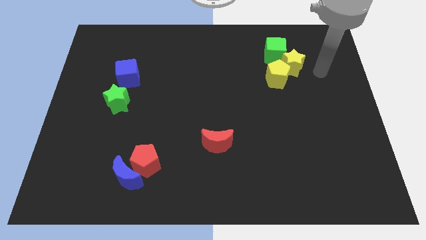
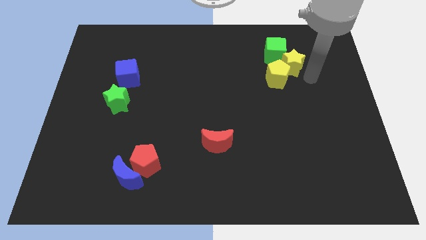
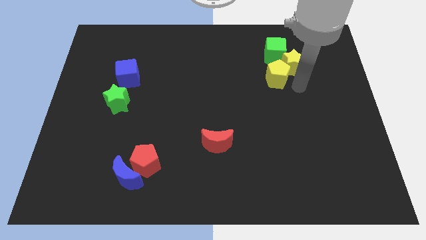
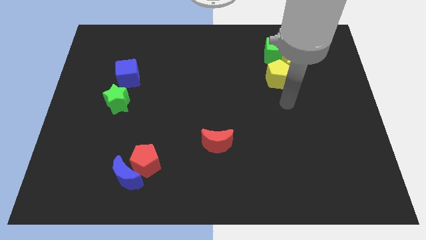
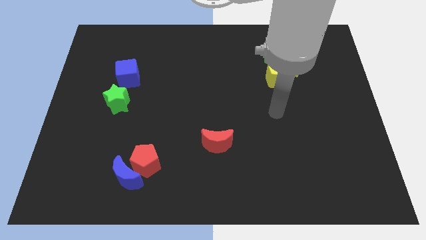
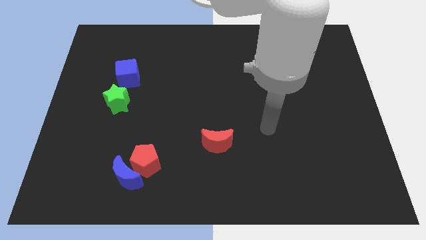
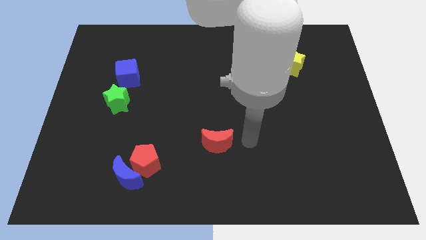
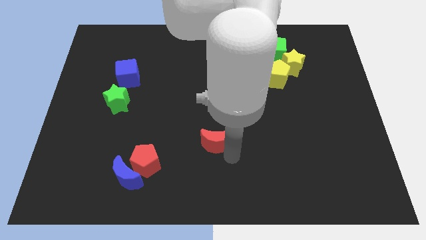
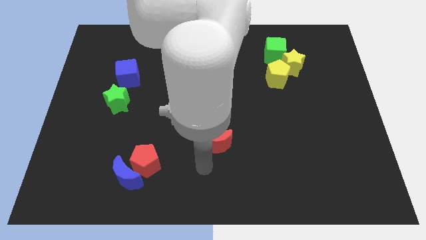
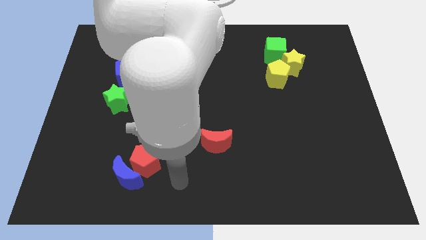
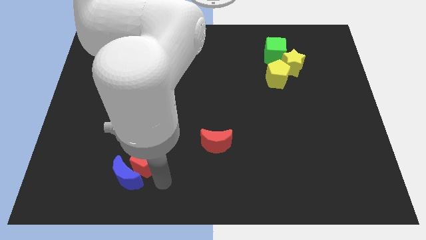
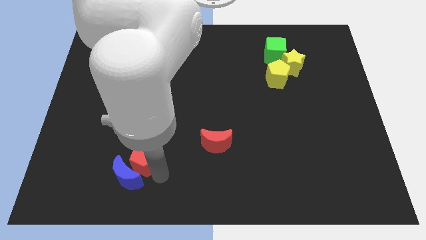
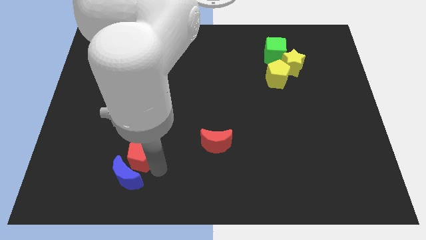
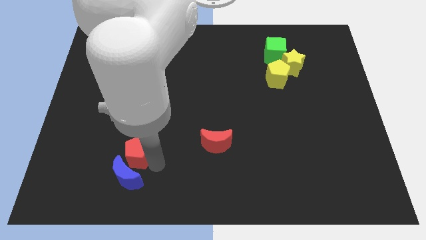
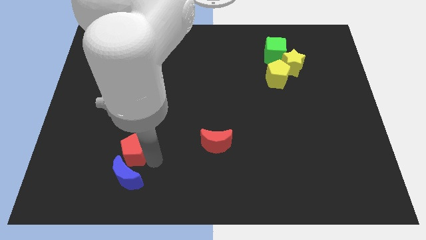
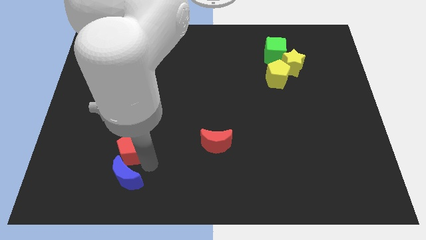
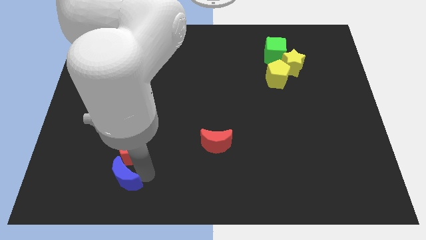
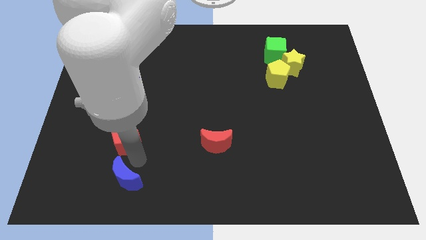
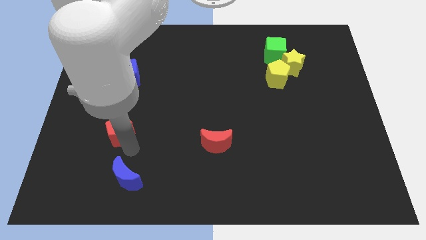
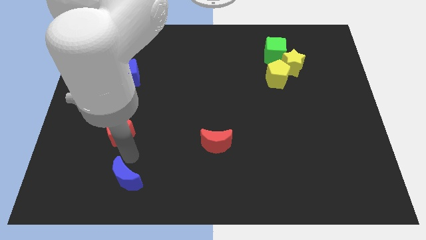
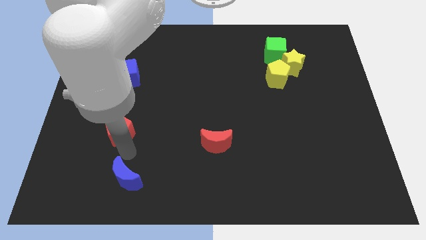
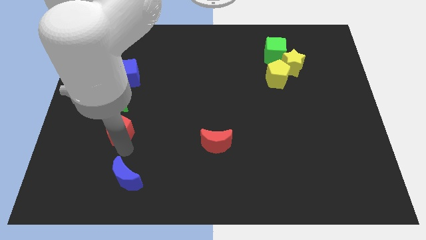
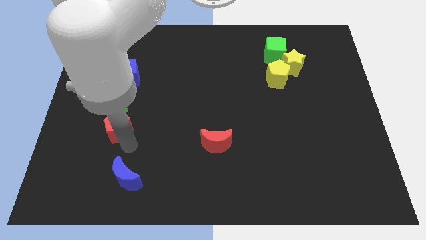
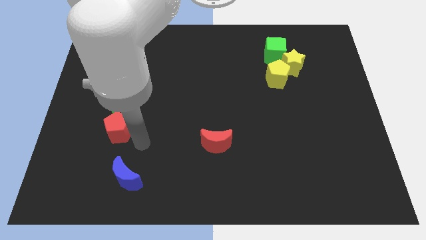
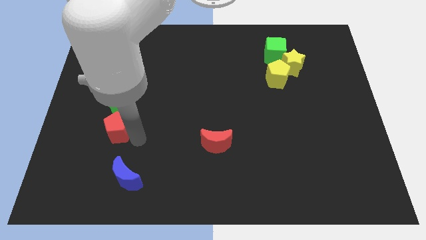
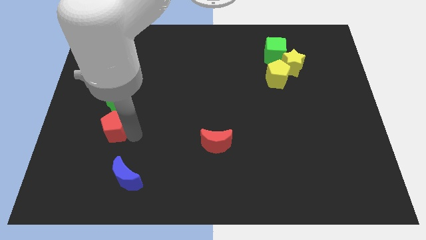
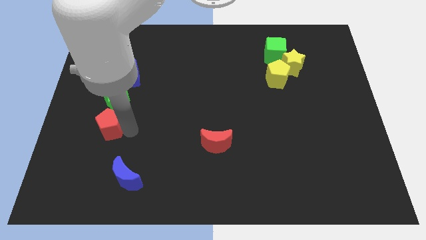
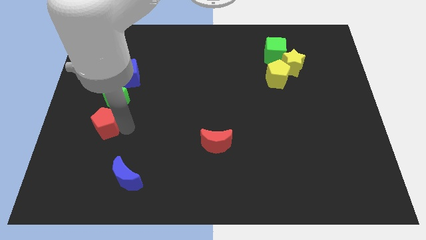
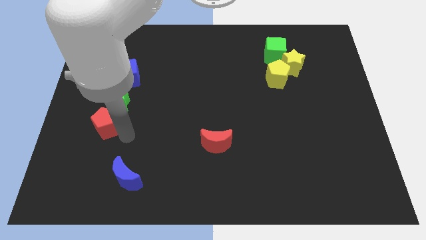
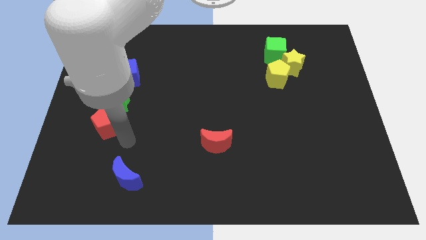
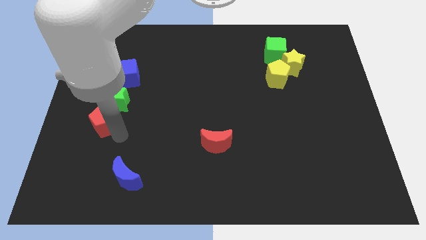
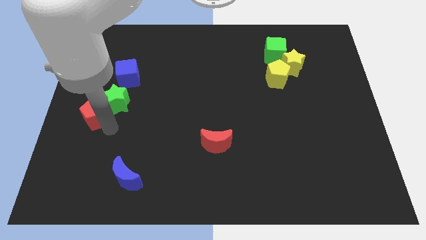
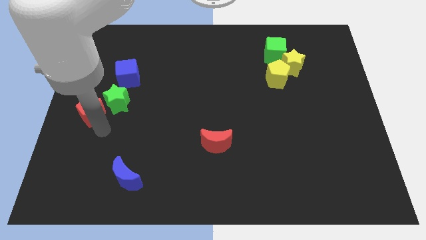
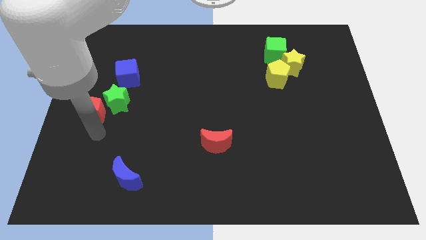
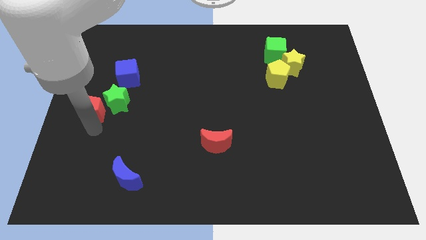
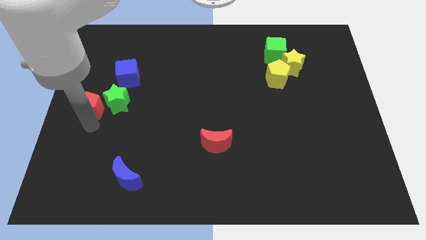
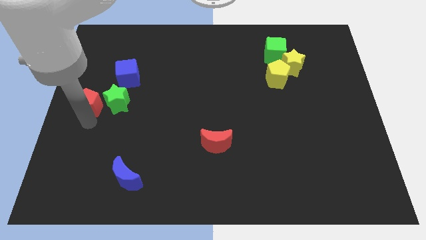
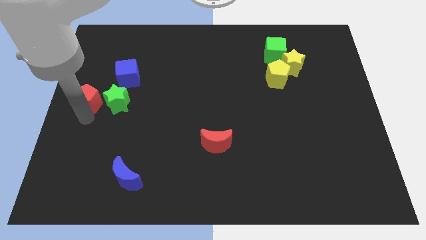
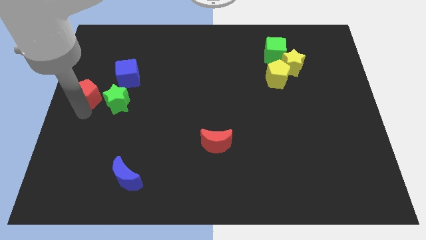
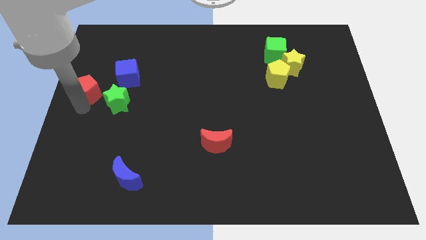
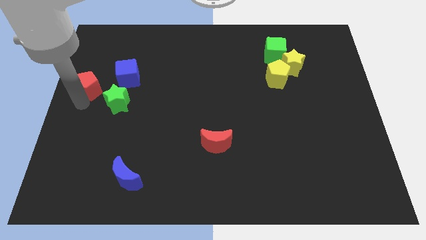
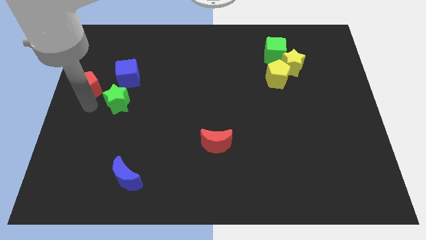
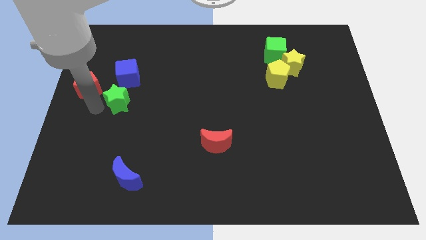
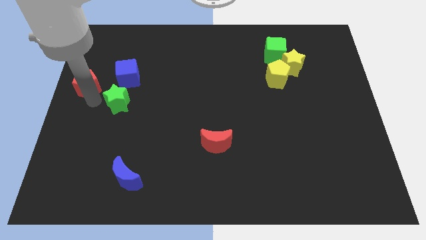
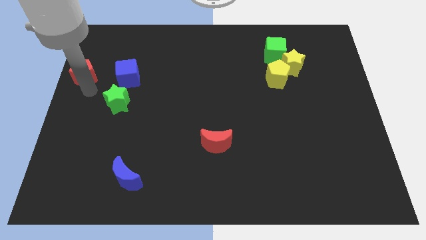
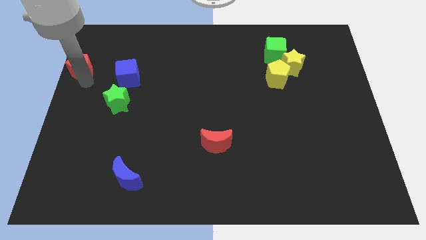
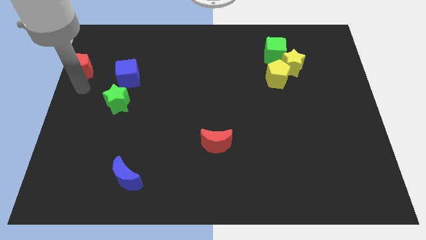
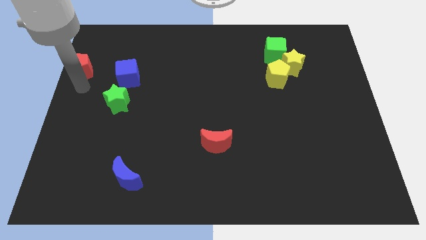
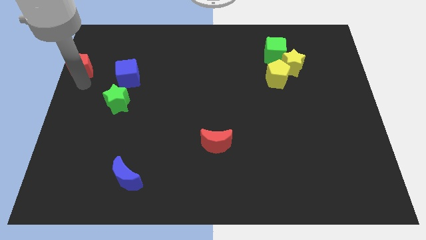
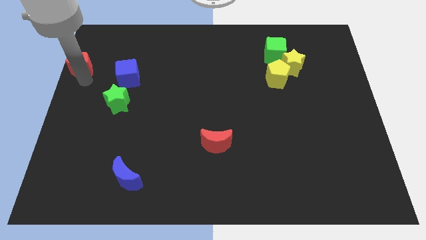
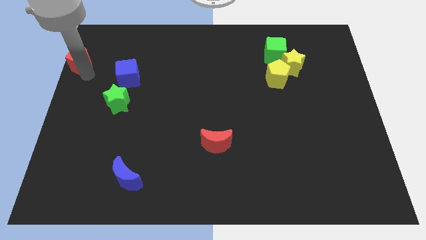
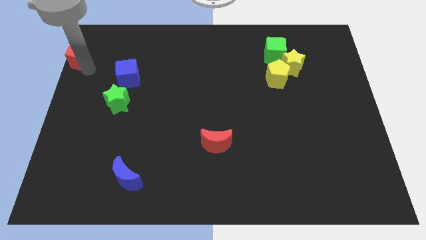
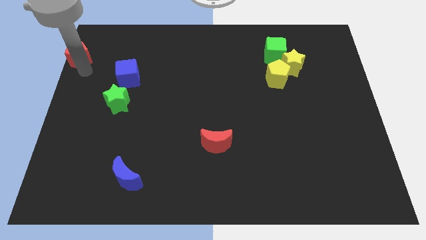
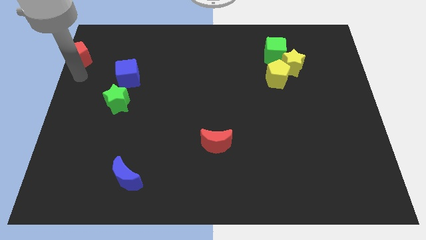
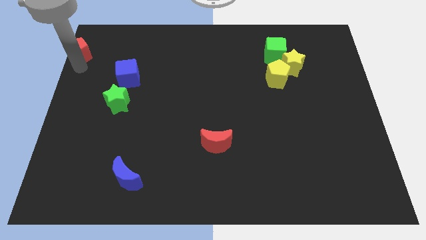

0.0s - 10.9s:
move the red pentagon to the top left of the board

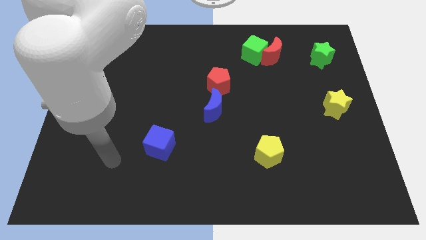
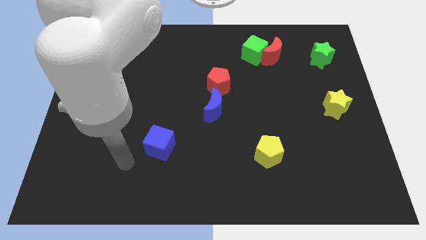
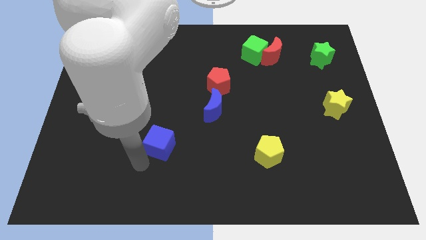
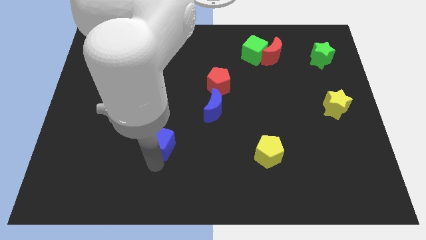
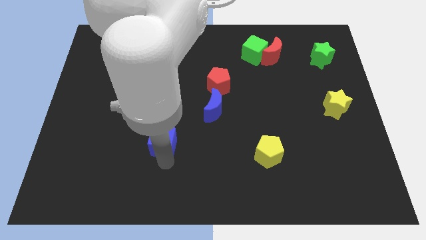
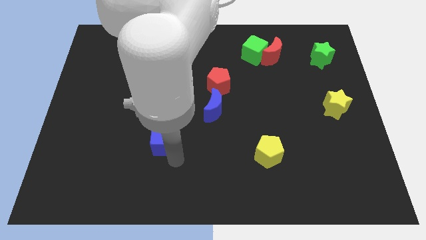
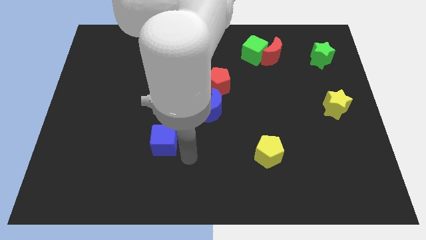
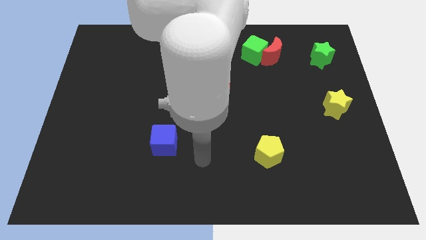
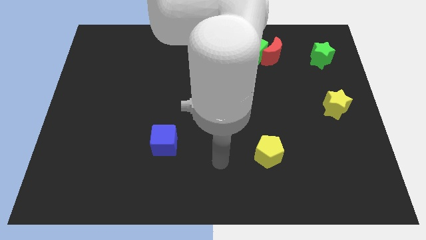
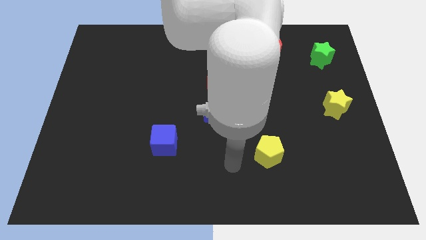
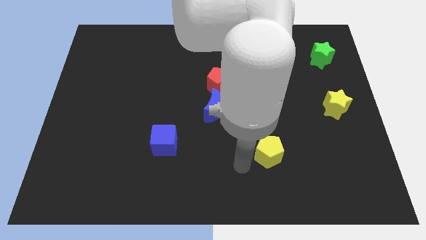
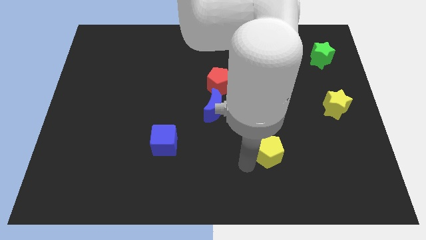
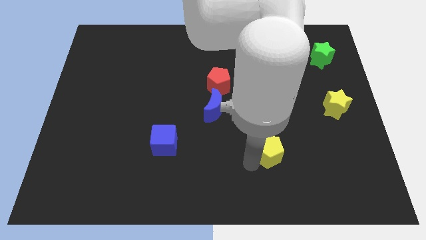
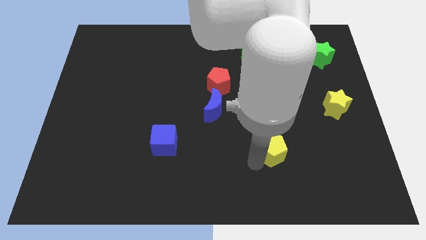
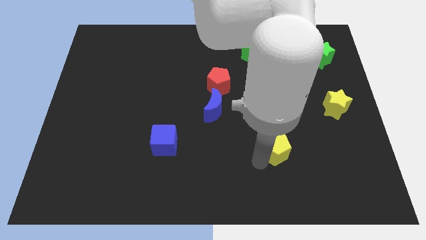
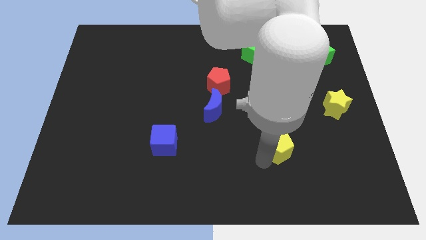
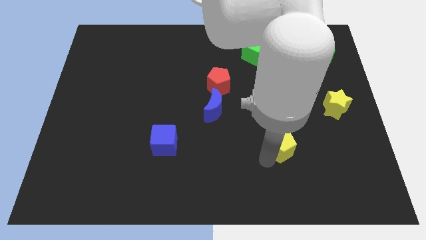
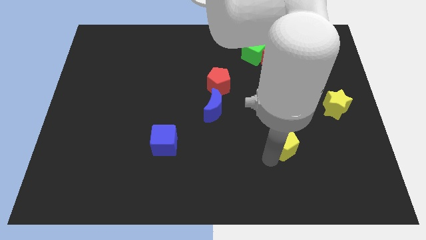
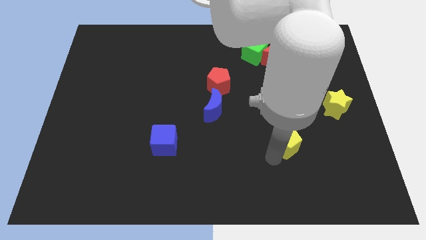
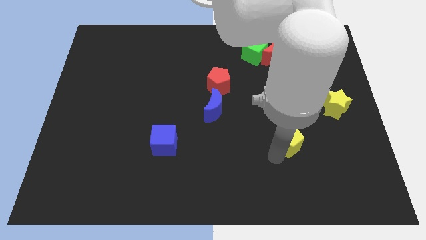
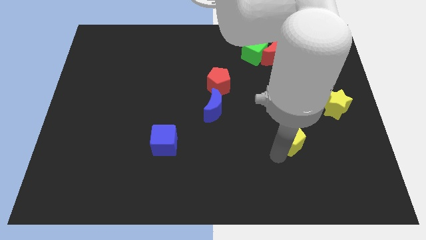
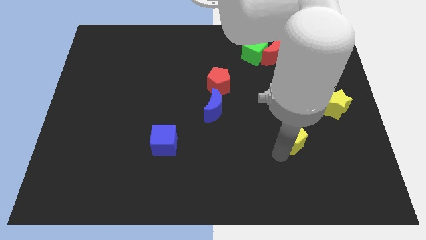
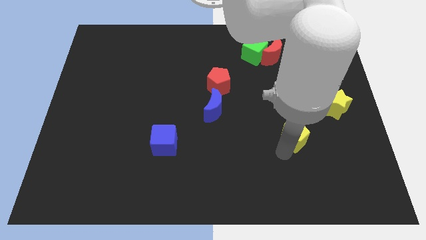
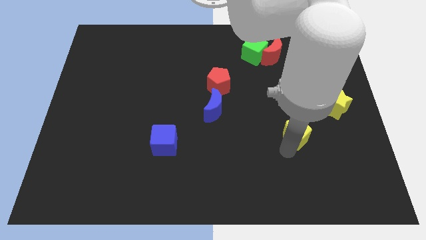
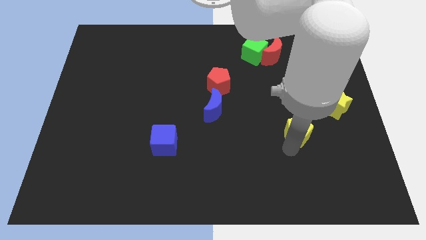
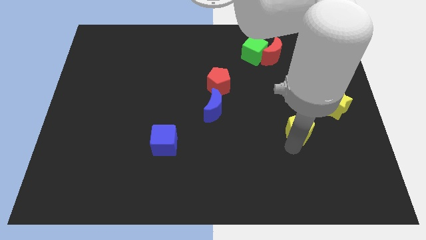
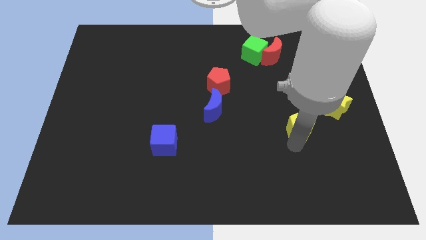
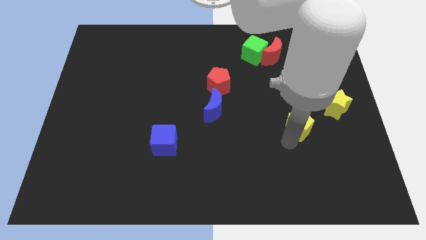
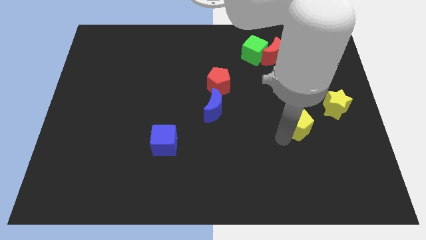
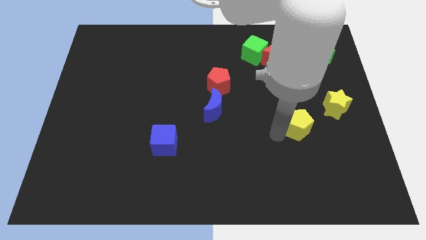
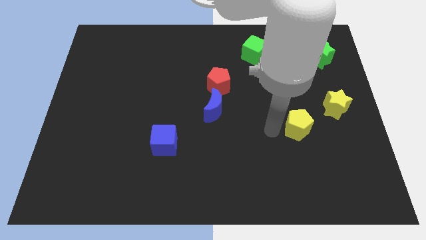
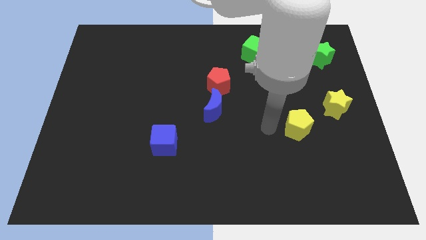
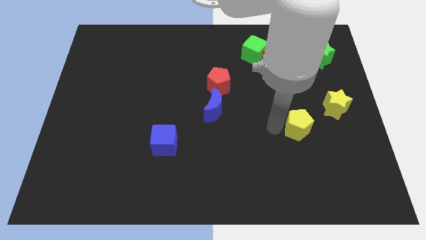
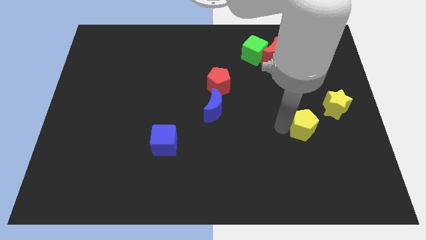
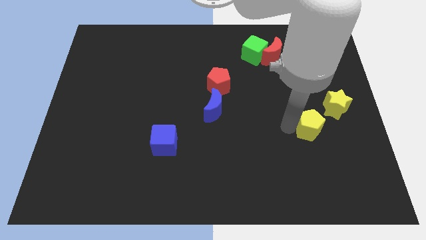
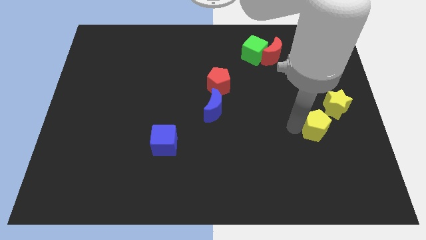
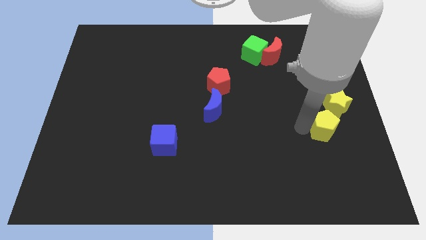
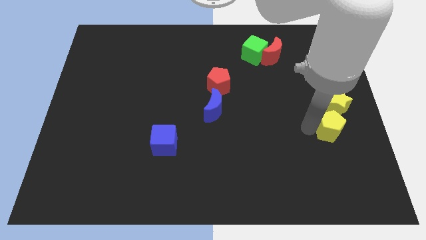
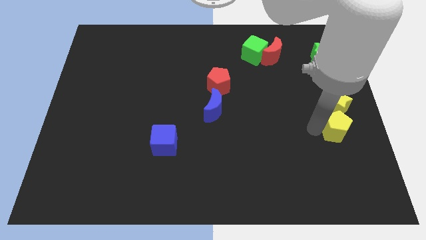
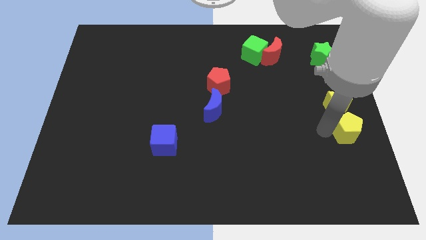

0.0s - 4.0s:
move the yellow pentagon to the right side
